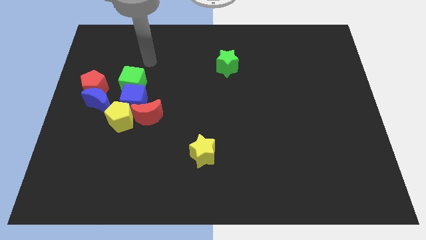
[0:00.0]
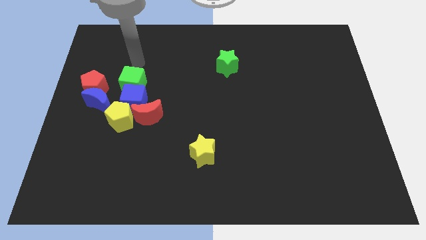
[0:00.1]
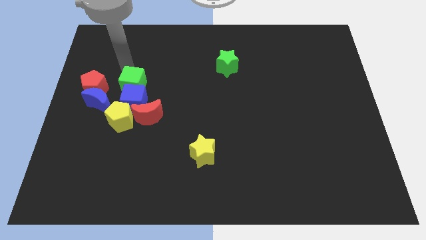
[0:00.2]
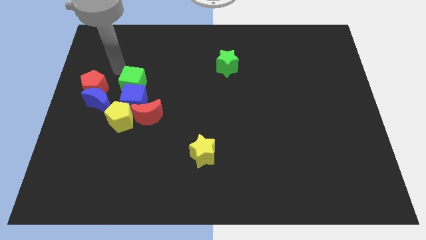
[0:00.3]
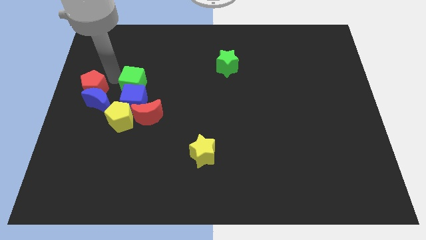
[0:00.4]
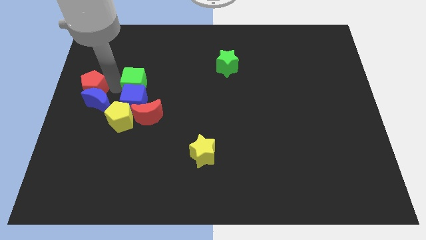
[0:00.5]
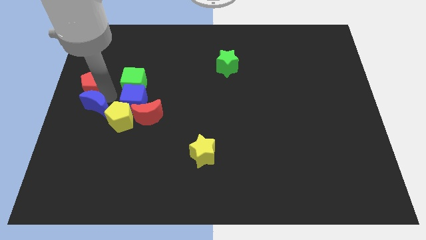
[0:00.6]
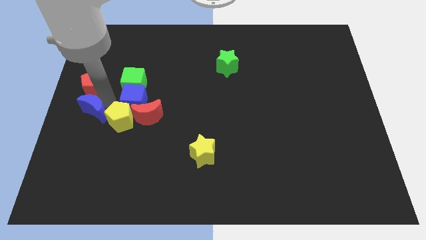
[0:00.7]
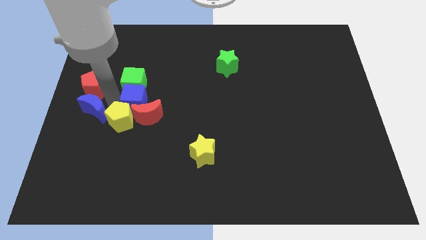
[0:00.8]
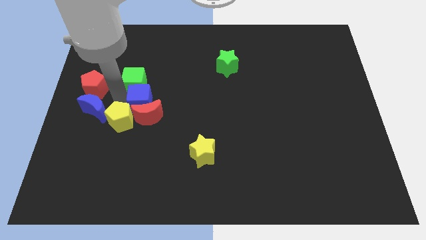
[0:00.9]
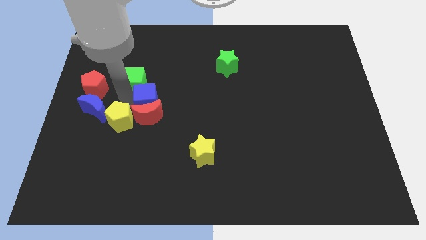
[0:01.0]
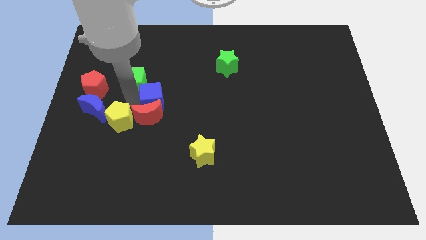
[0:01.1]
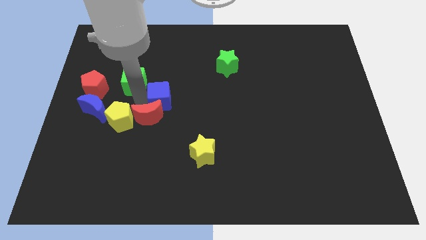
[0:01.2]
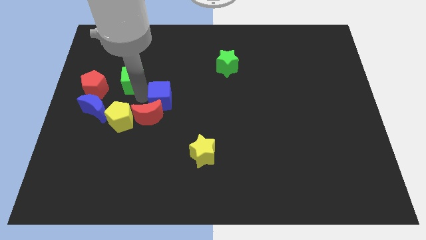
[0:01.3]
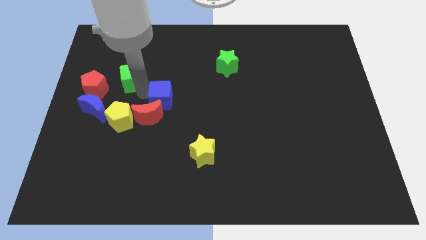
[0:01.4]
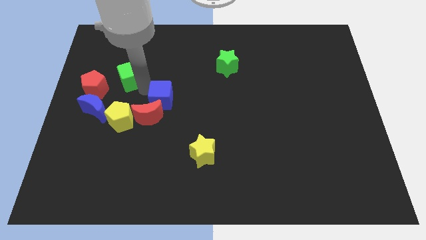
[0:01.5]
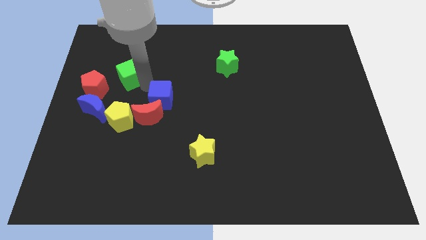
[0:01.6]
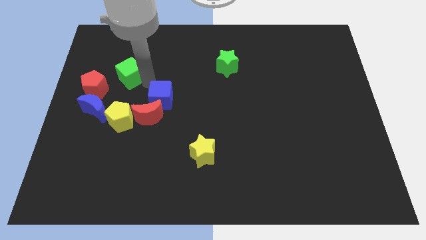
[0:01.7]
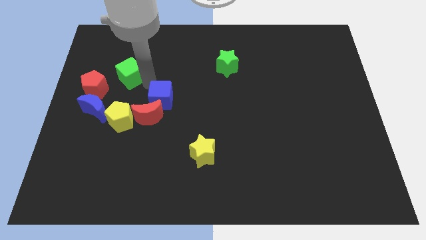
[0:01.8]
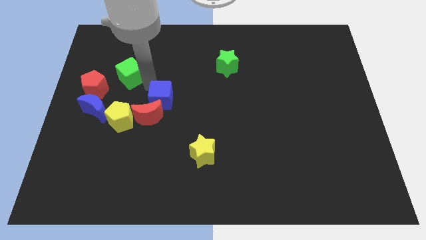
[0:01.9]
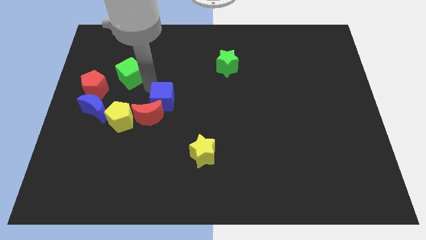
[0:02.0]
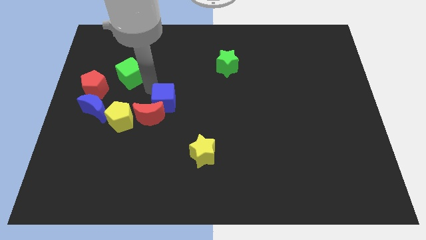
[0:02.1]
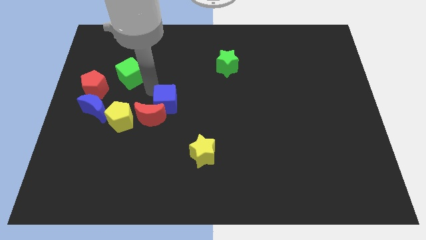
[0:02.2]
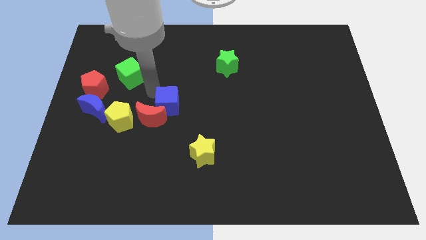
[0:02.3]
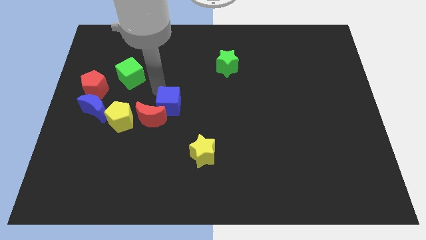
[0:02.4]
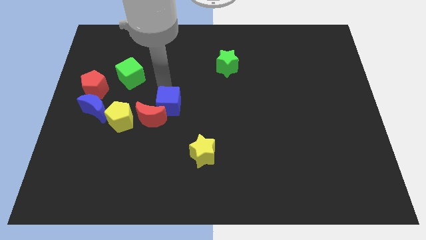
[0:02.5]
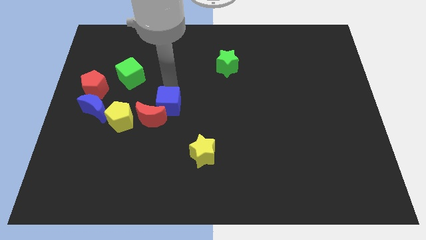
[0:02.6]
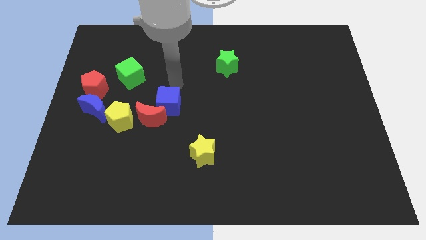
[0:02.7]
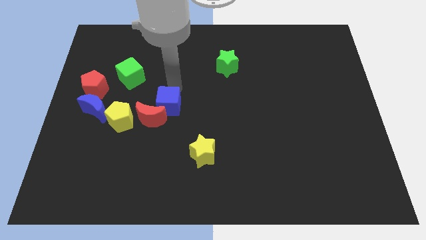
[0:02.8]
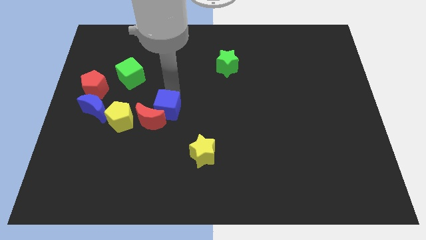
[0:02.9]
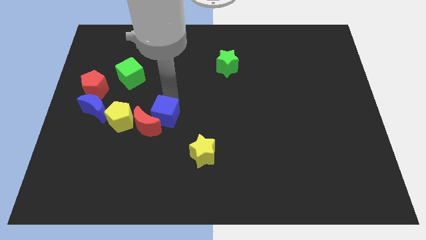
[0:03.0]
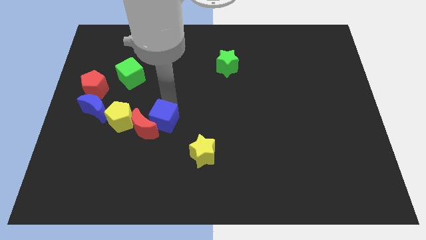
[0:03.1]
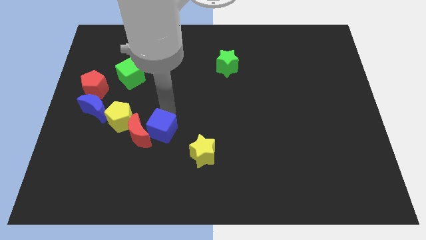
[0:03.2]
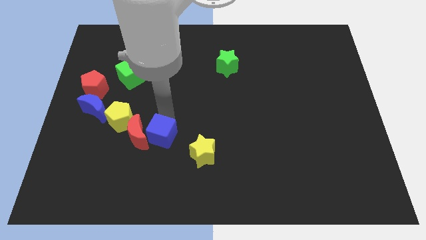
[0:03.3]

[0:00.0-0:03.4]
push the blue cube down a bit

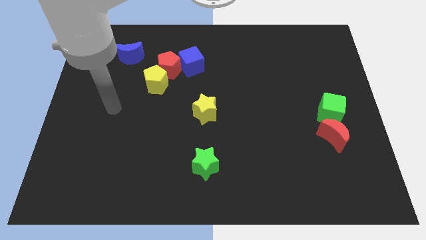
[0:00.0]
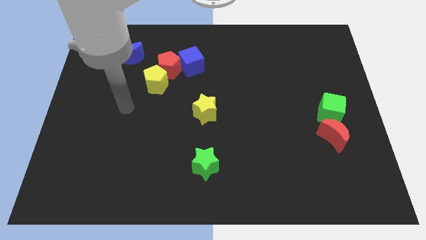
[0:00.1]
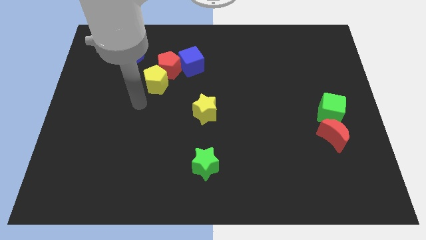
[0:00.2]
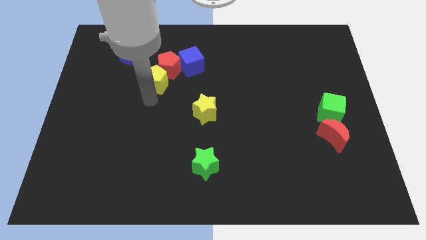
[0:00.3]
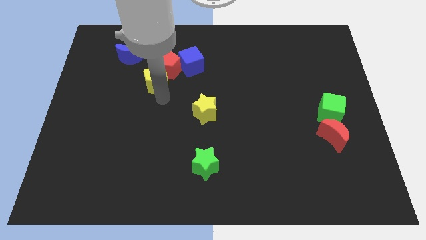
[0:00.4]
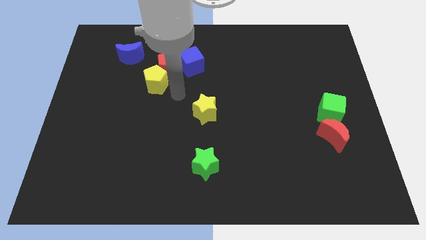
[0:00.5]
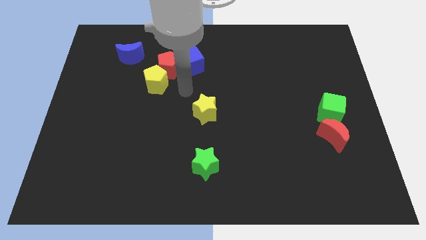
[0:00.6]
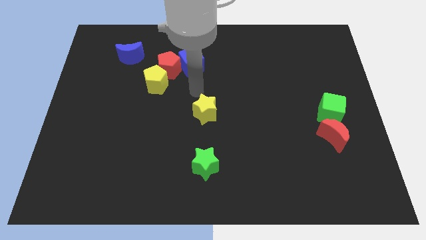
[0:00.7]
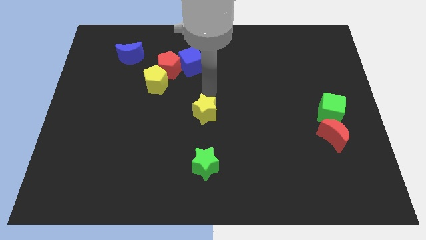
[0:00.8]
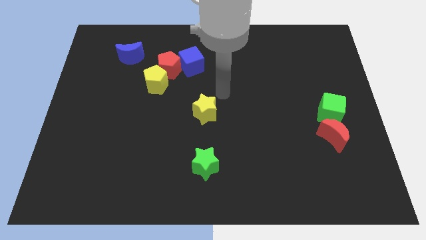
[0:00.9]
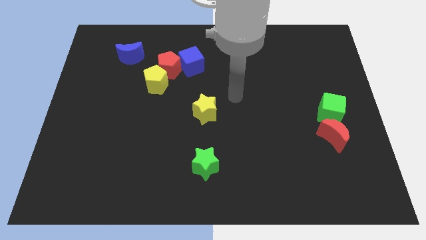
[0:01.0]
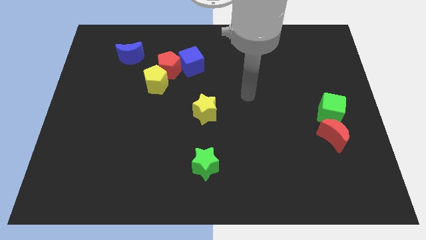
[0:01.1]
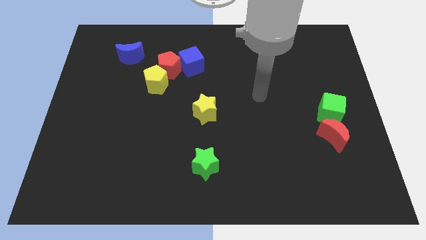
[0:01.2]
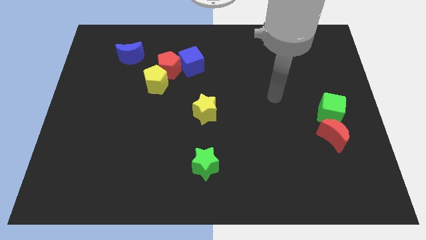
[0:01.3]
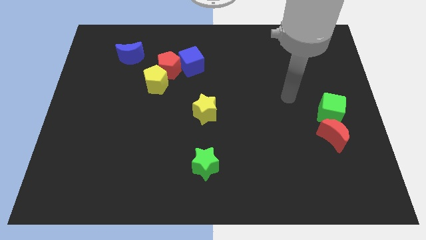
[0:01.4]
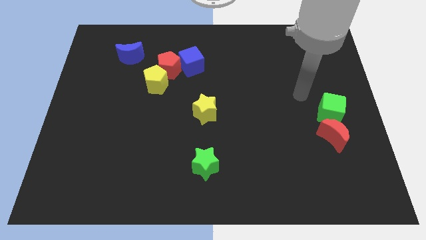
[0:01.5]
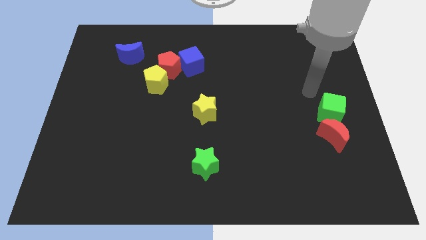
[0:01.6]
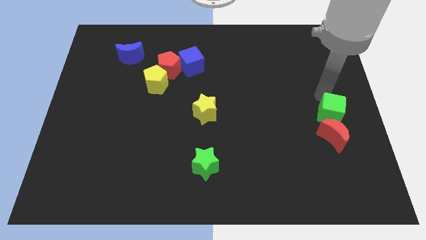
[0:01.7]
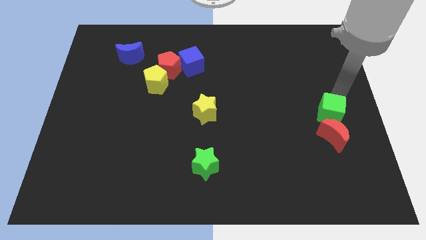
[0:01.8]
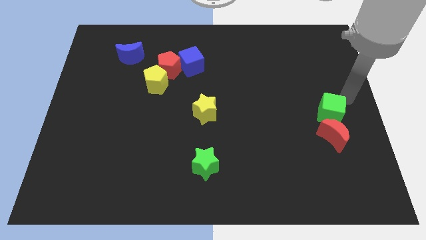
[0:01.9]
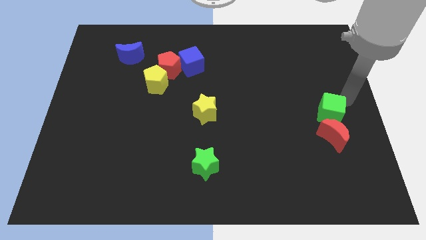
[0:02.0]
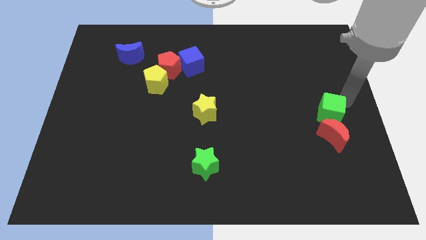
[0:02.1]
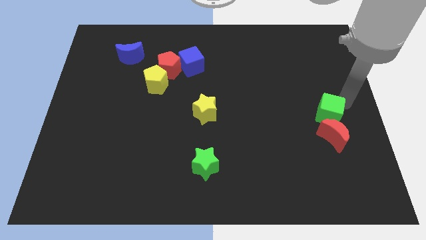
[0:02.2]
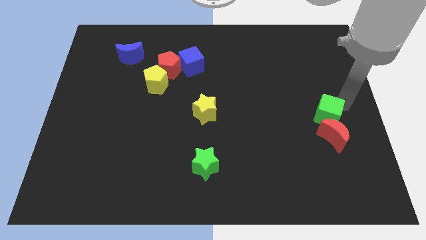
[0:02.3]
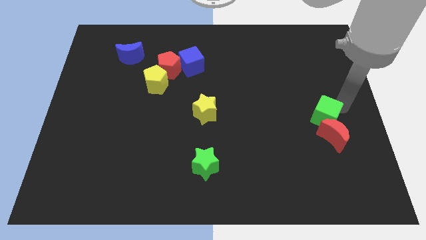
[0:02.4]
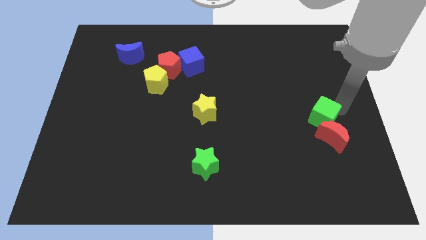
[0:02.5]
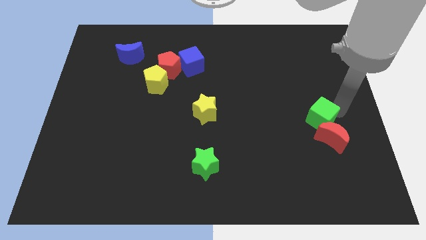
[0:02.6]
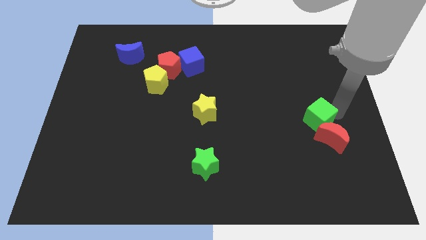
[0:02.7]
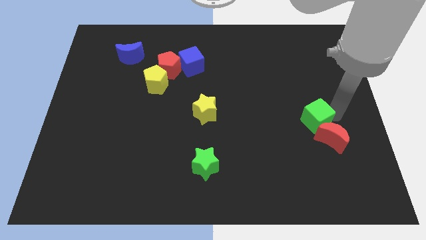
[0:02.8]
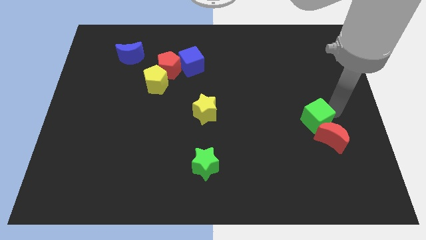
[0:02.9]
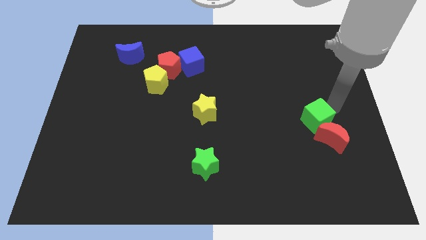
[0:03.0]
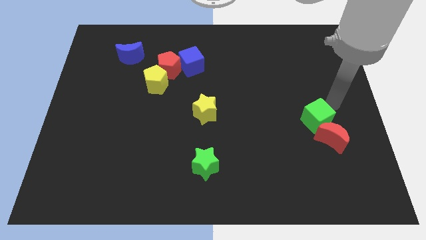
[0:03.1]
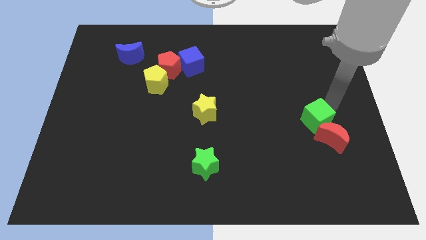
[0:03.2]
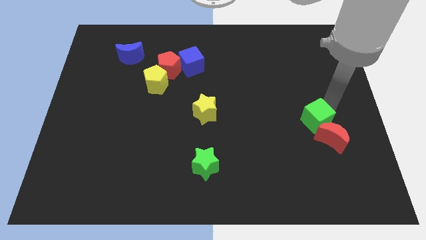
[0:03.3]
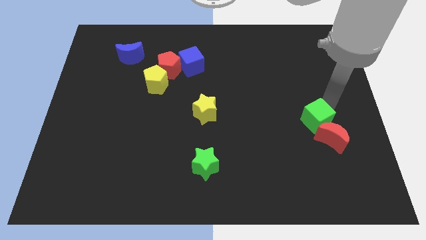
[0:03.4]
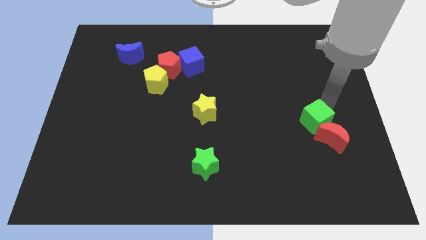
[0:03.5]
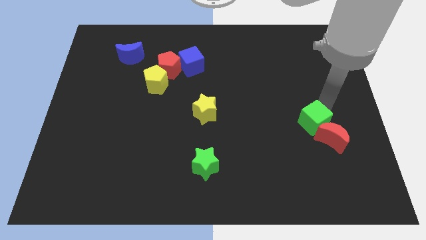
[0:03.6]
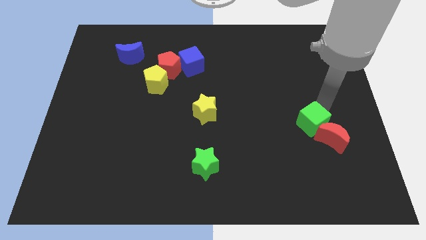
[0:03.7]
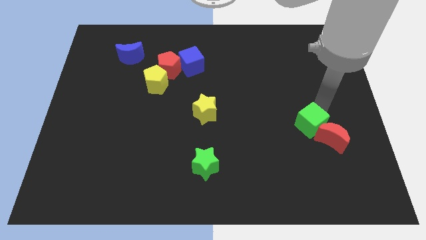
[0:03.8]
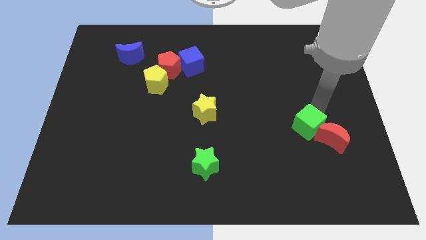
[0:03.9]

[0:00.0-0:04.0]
slightly slide the green cube diagonally downwards and to the left

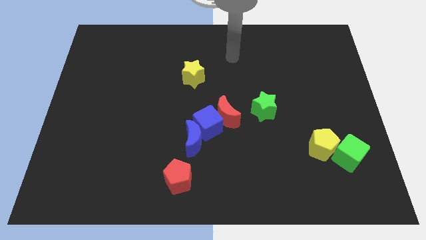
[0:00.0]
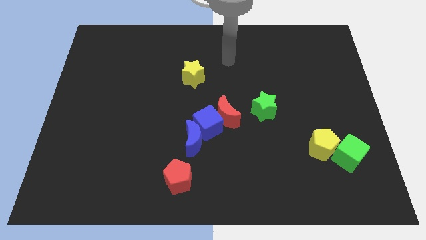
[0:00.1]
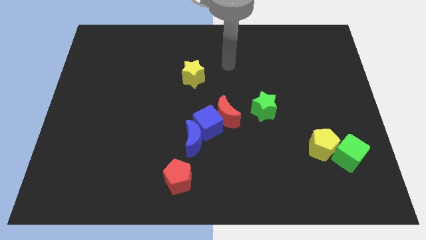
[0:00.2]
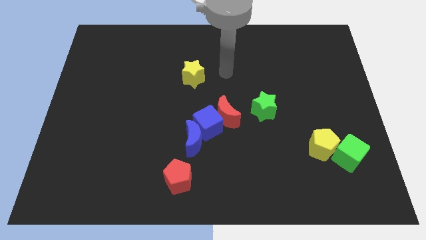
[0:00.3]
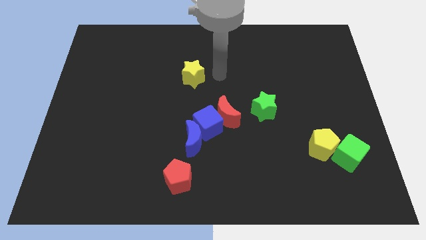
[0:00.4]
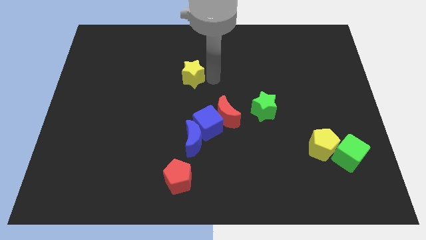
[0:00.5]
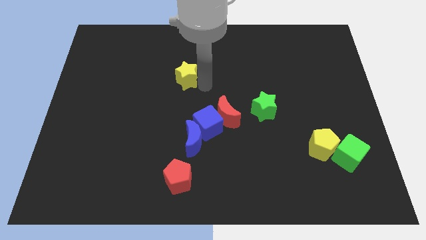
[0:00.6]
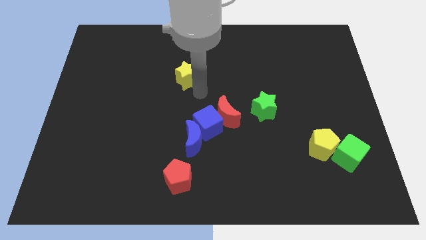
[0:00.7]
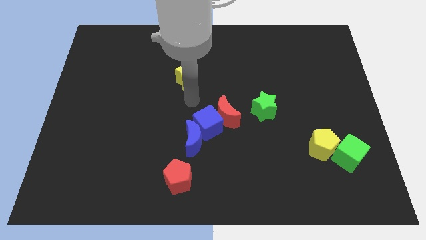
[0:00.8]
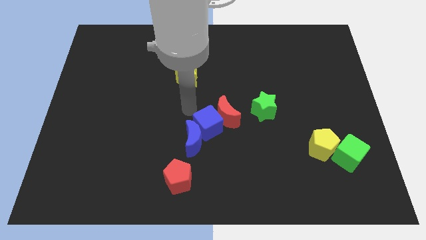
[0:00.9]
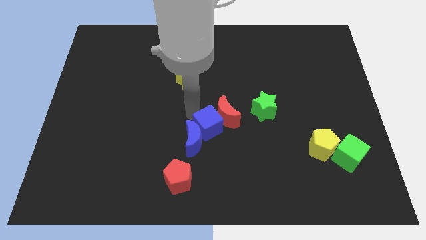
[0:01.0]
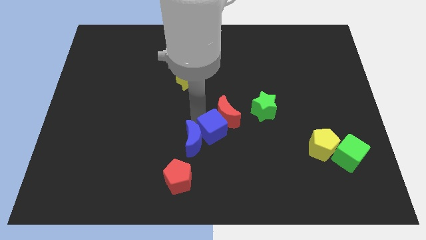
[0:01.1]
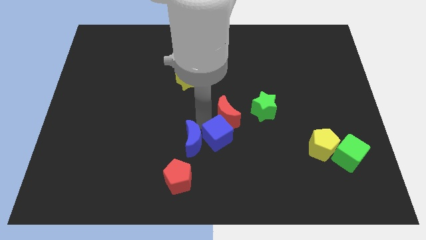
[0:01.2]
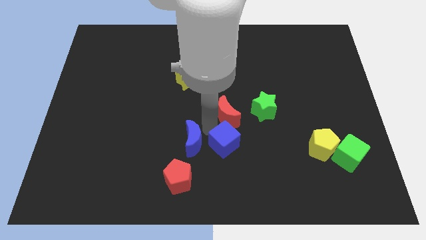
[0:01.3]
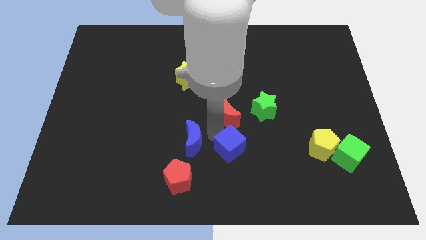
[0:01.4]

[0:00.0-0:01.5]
slide the blue cube downwards and to the right a bit
